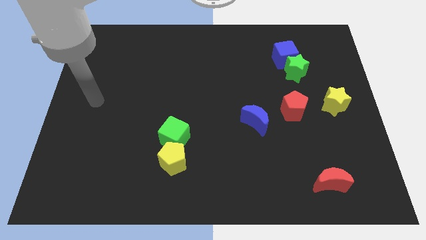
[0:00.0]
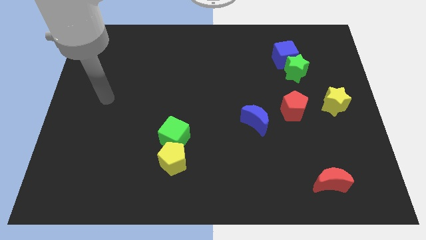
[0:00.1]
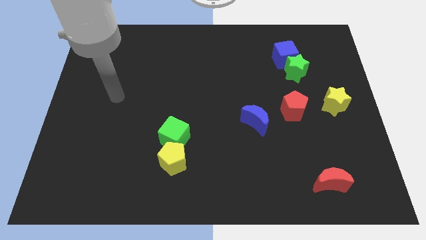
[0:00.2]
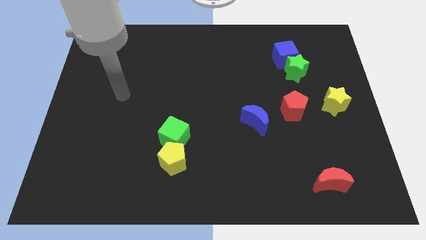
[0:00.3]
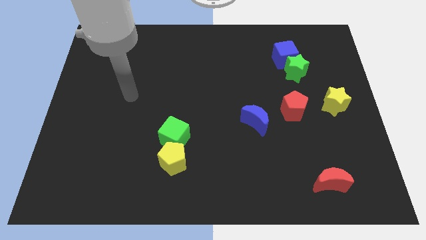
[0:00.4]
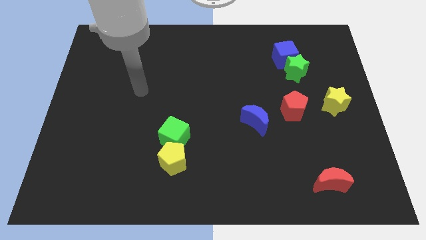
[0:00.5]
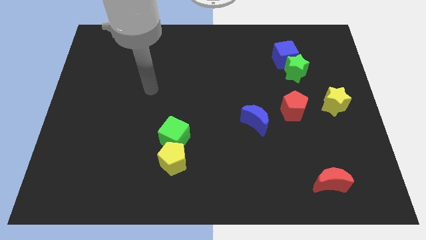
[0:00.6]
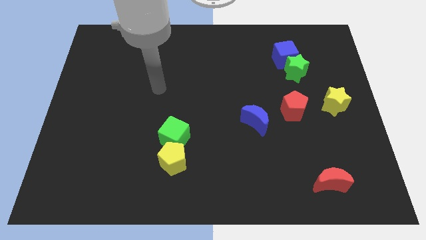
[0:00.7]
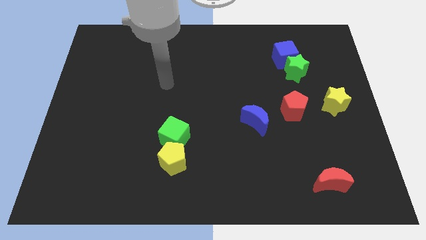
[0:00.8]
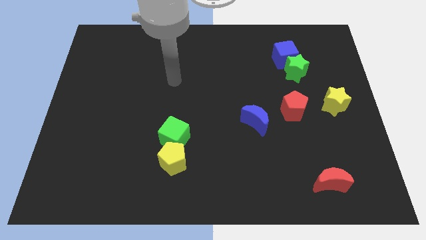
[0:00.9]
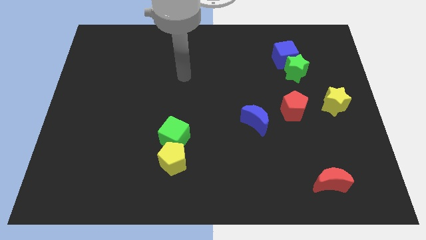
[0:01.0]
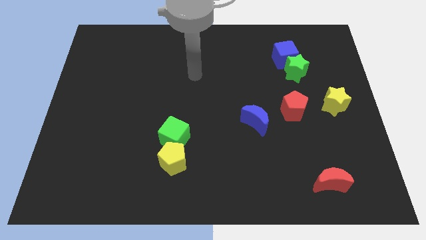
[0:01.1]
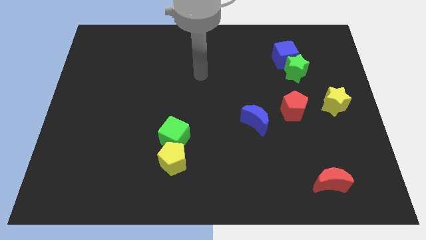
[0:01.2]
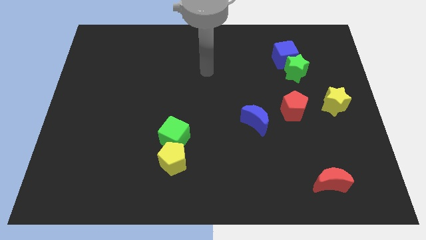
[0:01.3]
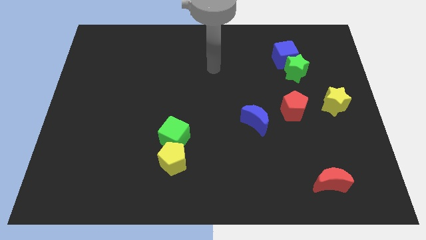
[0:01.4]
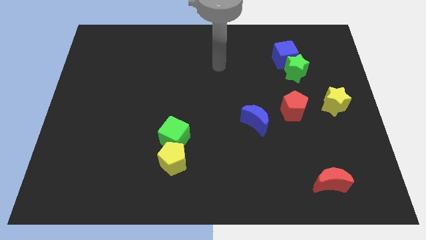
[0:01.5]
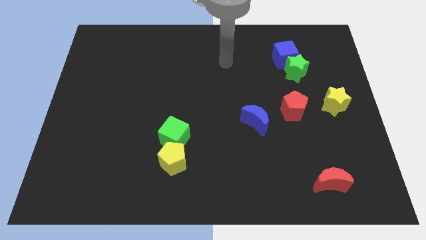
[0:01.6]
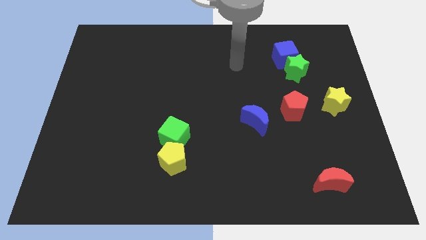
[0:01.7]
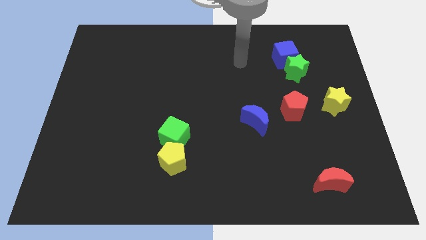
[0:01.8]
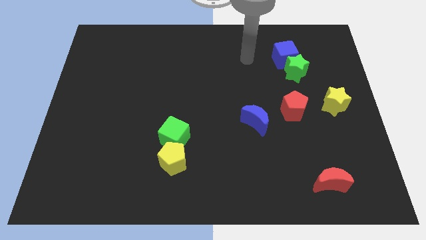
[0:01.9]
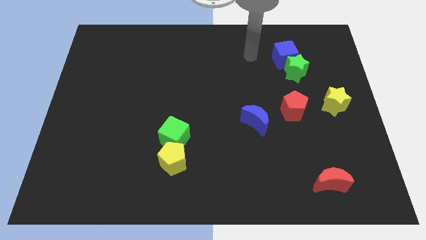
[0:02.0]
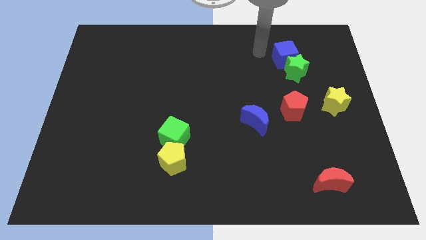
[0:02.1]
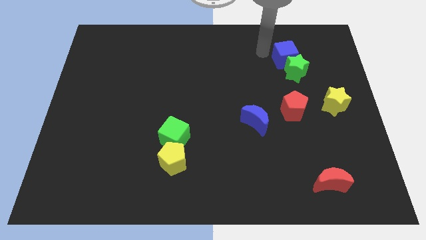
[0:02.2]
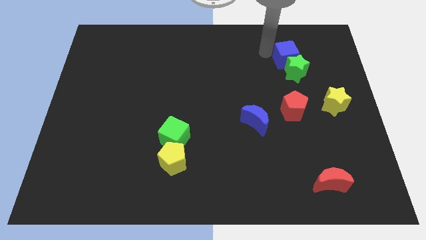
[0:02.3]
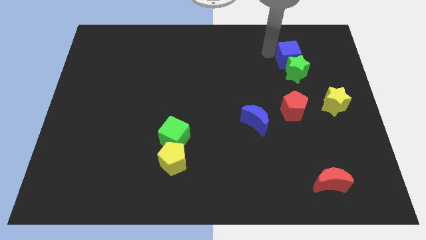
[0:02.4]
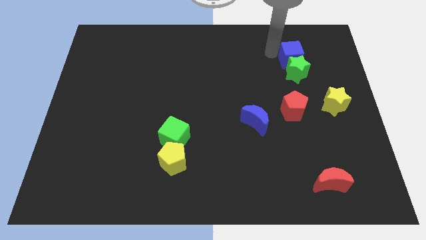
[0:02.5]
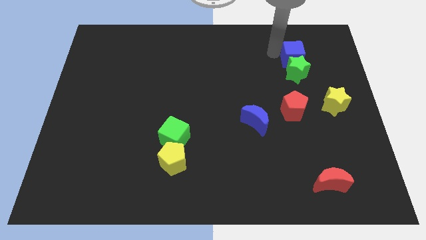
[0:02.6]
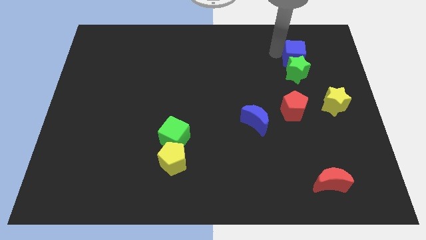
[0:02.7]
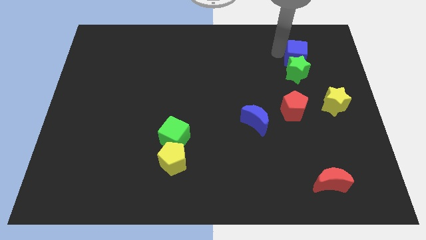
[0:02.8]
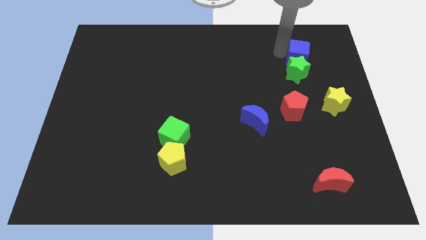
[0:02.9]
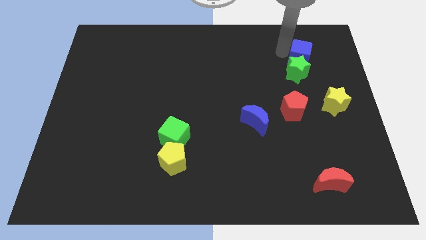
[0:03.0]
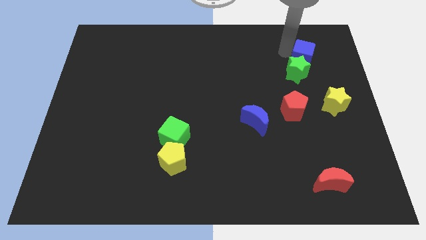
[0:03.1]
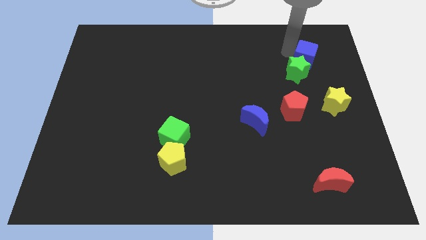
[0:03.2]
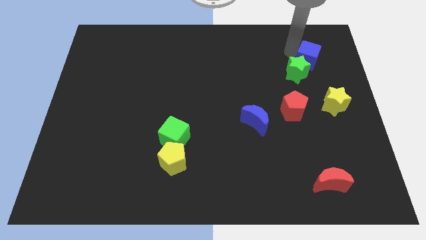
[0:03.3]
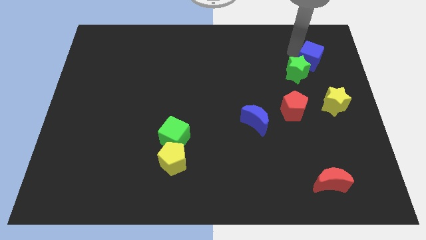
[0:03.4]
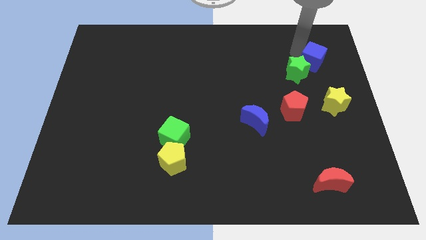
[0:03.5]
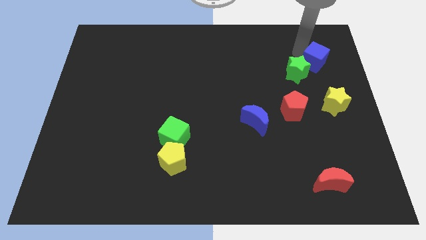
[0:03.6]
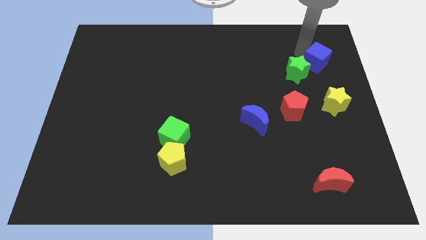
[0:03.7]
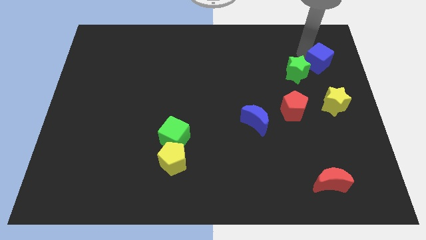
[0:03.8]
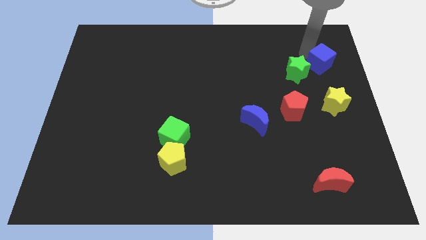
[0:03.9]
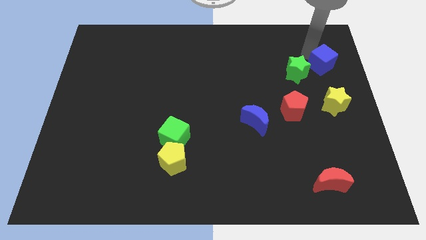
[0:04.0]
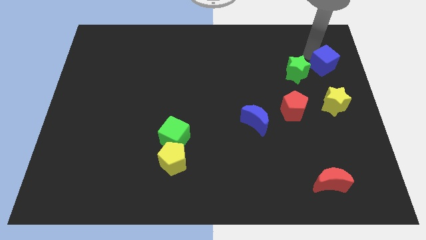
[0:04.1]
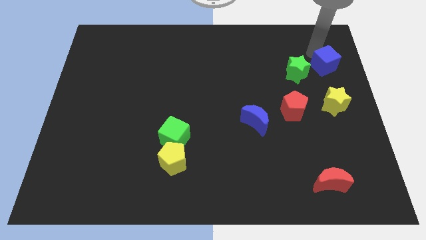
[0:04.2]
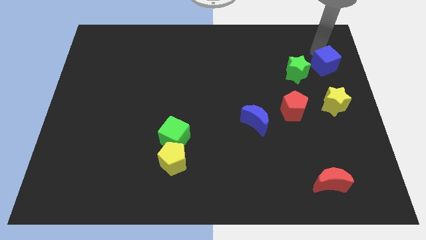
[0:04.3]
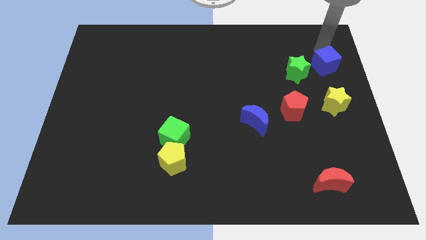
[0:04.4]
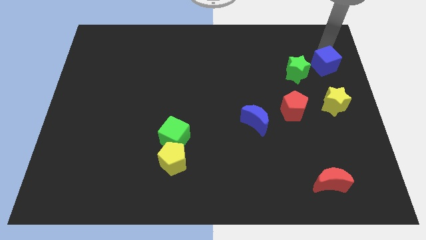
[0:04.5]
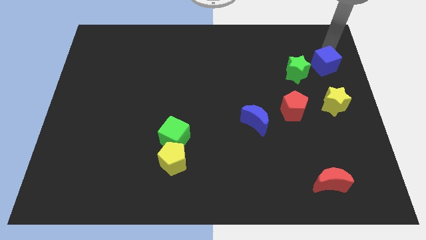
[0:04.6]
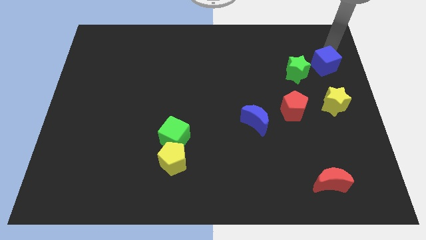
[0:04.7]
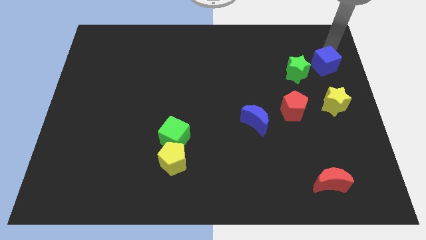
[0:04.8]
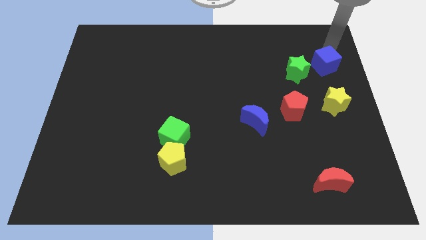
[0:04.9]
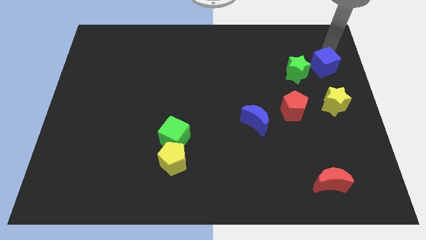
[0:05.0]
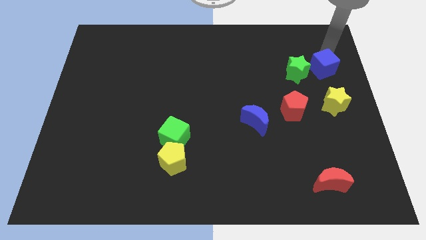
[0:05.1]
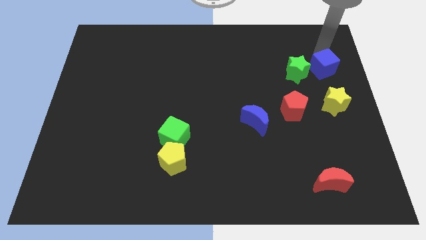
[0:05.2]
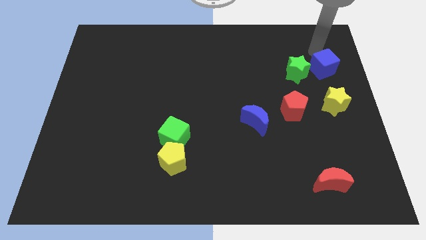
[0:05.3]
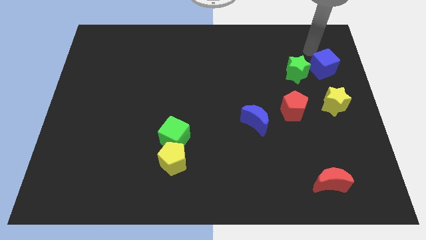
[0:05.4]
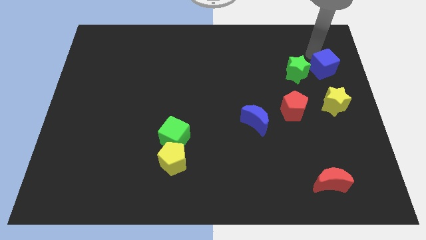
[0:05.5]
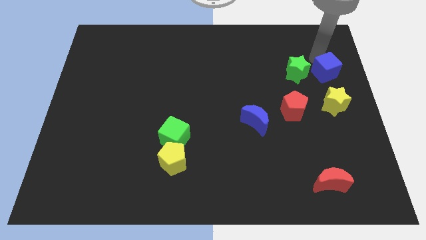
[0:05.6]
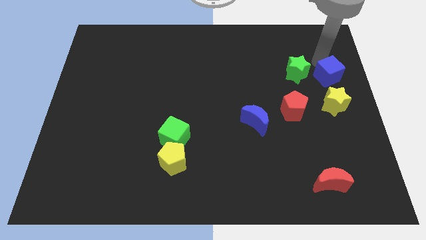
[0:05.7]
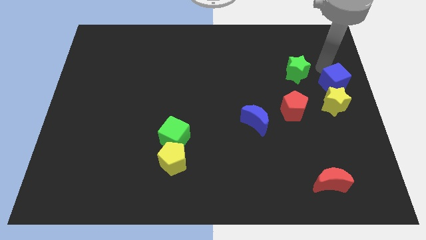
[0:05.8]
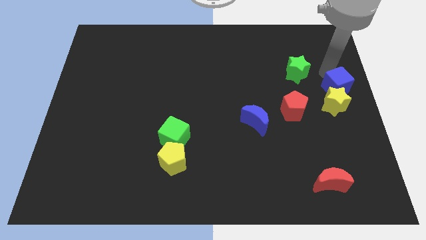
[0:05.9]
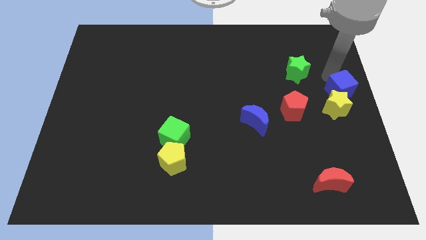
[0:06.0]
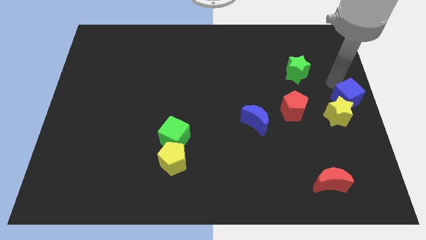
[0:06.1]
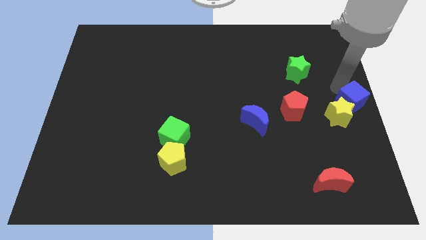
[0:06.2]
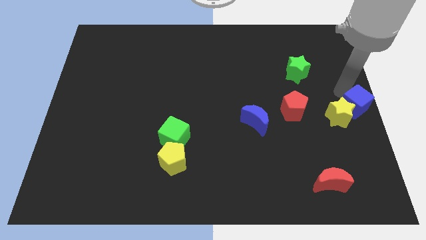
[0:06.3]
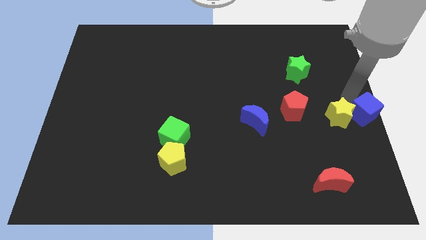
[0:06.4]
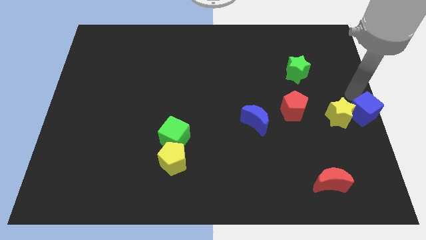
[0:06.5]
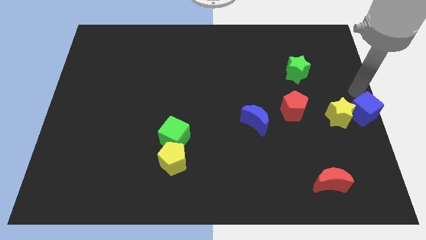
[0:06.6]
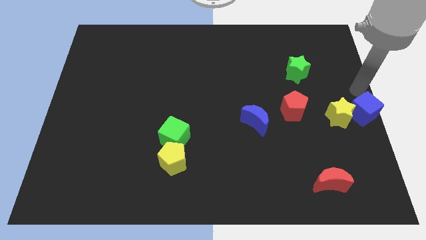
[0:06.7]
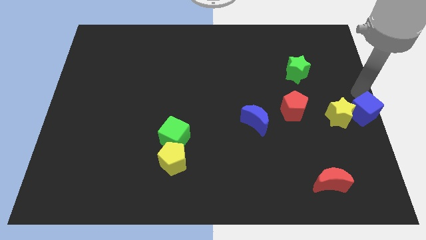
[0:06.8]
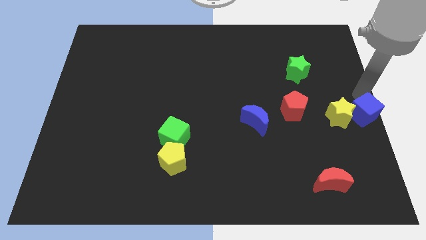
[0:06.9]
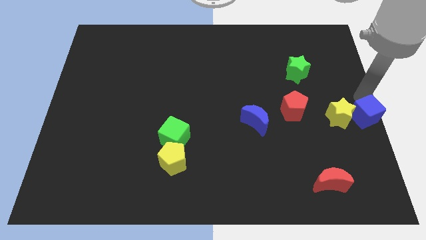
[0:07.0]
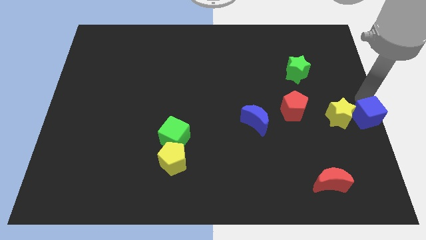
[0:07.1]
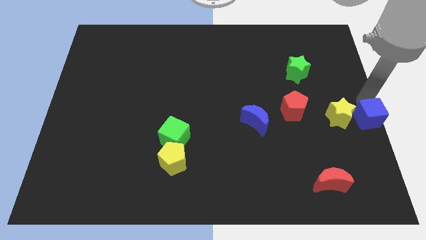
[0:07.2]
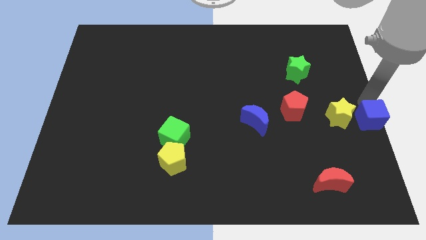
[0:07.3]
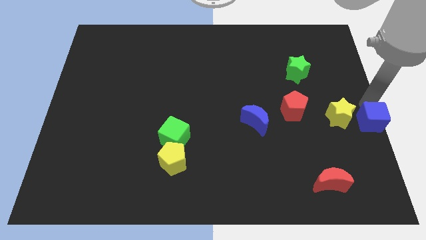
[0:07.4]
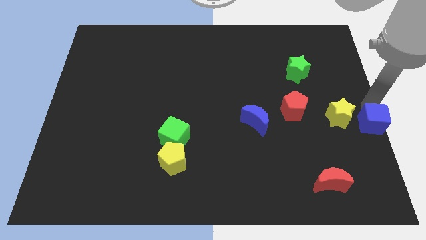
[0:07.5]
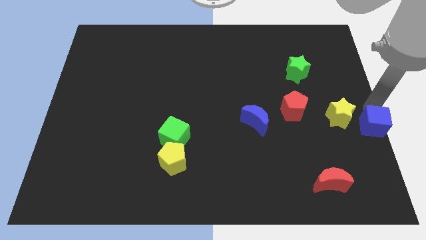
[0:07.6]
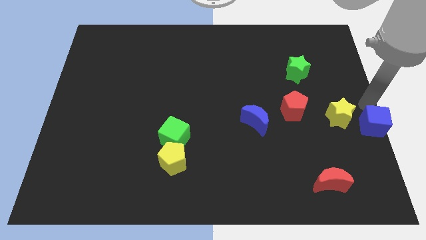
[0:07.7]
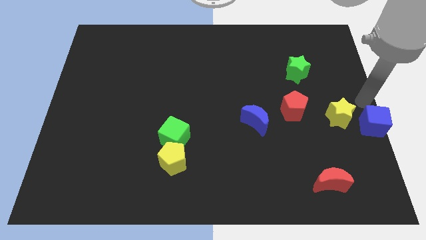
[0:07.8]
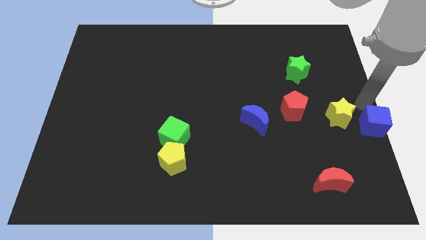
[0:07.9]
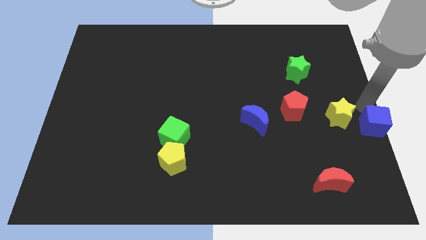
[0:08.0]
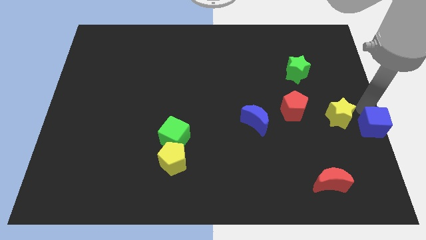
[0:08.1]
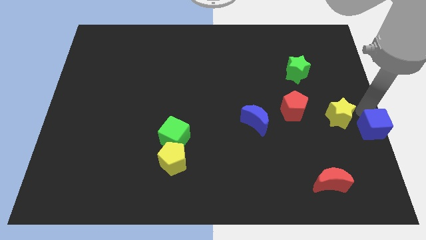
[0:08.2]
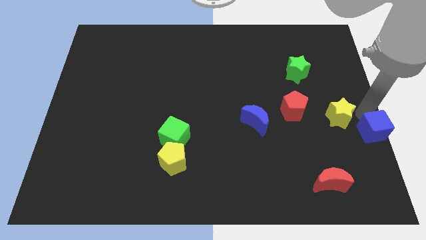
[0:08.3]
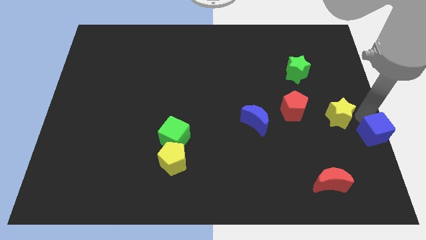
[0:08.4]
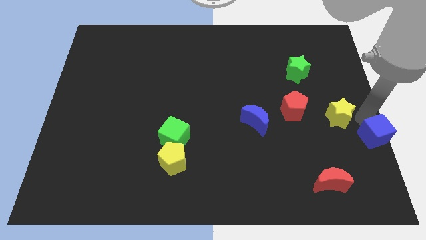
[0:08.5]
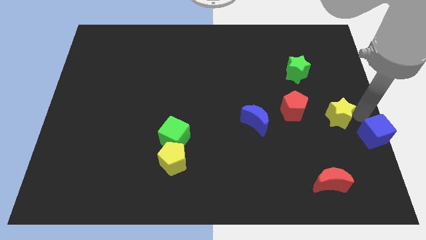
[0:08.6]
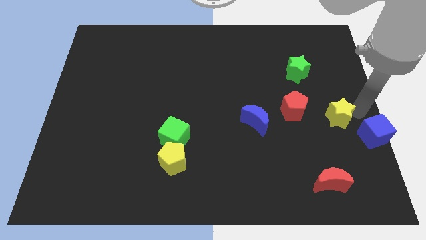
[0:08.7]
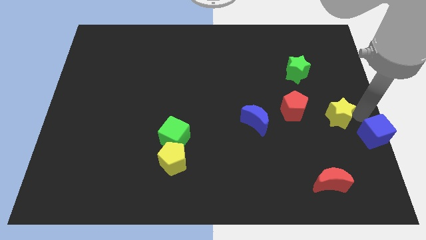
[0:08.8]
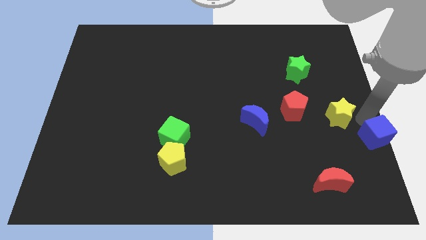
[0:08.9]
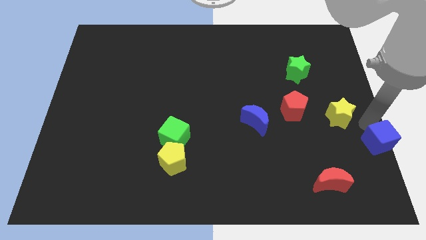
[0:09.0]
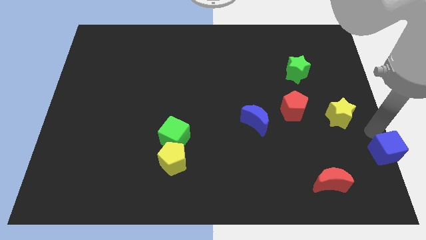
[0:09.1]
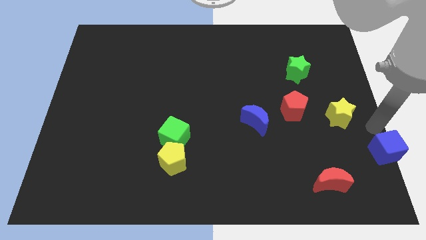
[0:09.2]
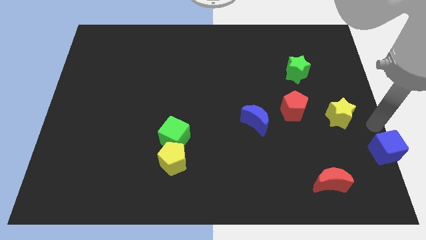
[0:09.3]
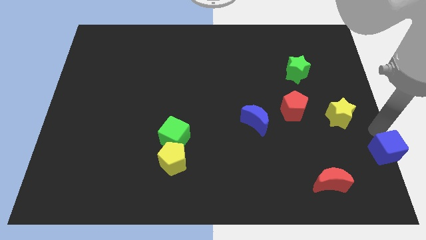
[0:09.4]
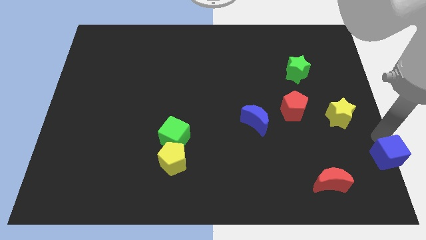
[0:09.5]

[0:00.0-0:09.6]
slide the blue cube to the bottom right
